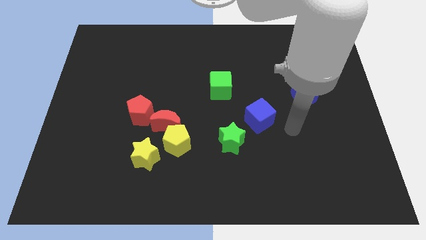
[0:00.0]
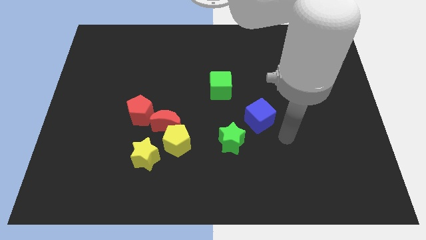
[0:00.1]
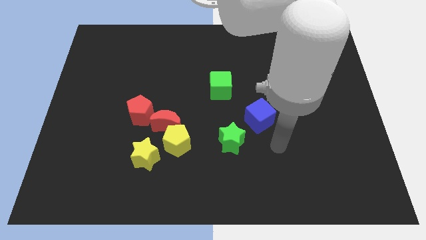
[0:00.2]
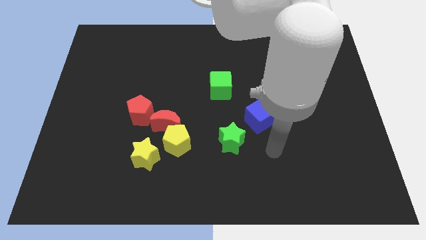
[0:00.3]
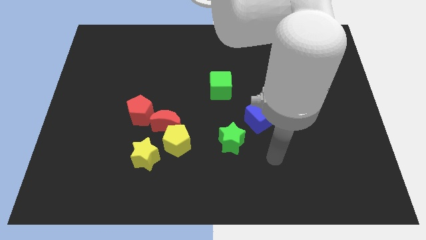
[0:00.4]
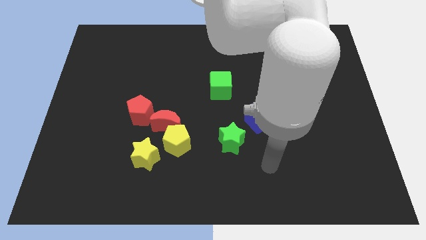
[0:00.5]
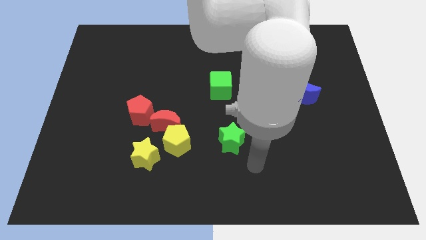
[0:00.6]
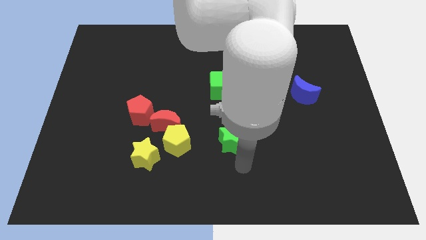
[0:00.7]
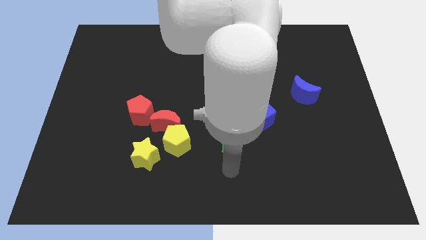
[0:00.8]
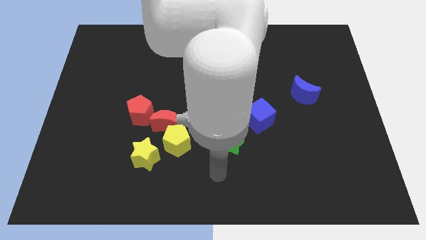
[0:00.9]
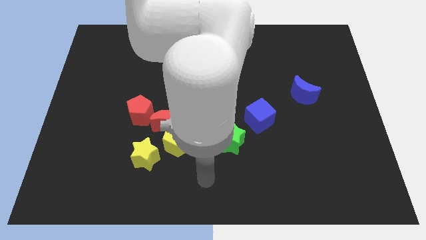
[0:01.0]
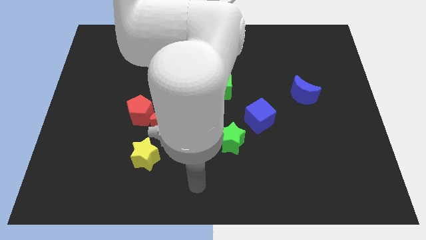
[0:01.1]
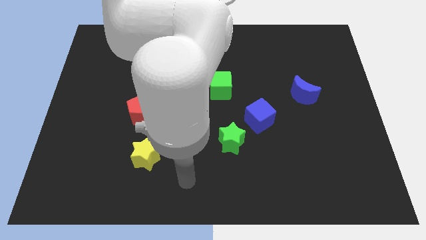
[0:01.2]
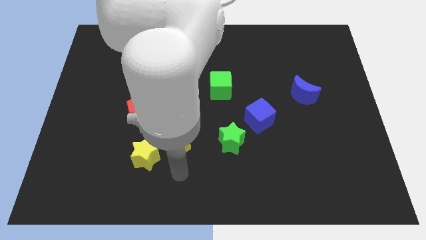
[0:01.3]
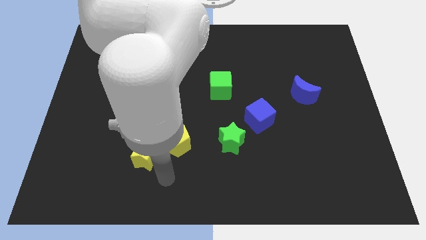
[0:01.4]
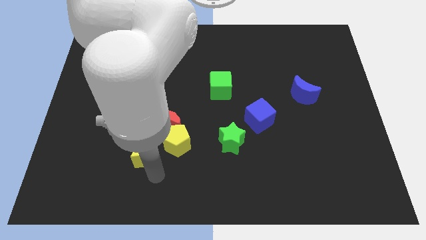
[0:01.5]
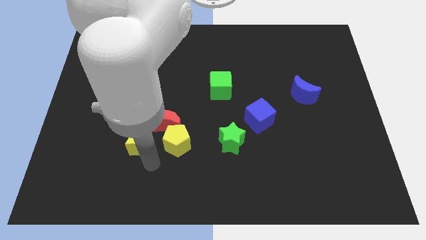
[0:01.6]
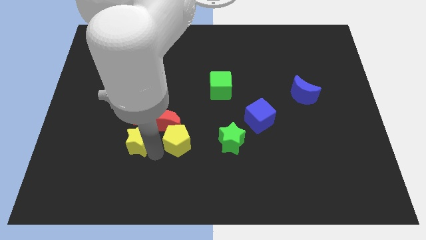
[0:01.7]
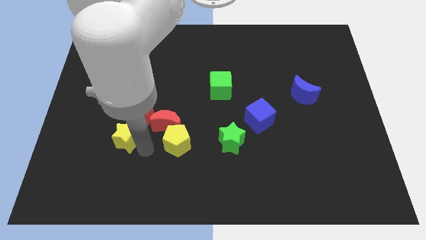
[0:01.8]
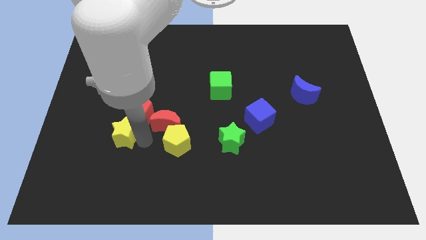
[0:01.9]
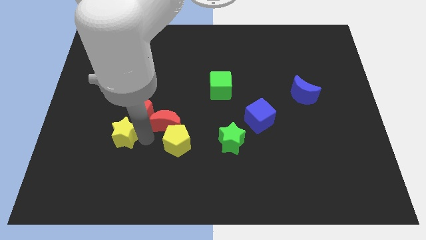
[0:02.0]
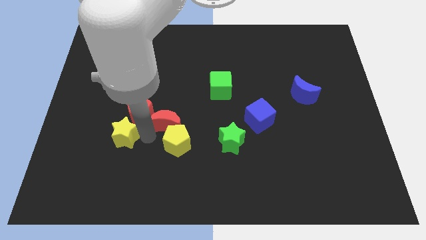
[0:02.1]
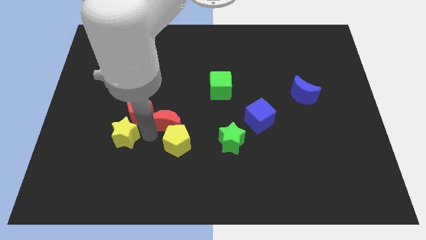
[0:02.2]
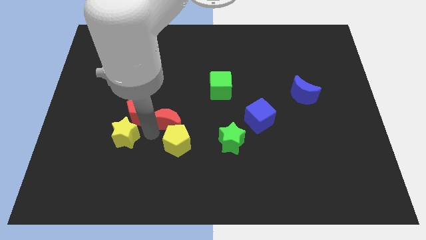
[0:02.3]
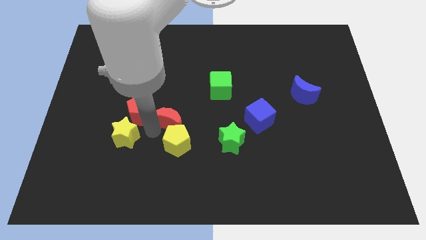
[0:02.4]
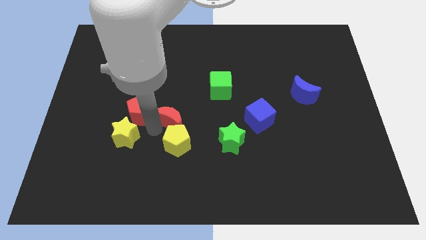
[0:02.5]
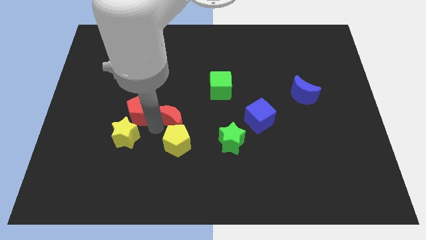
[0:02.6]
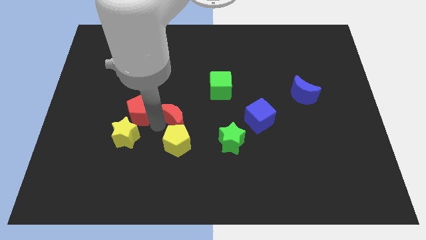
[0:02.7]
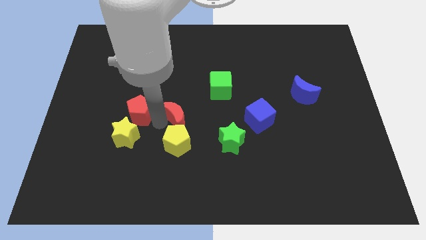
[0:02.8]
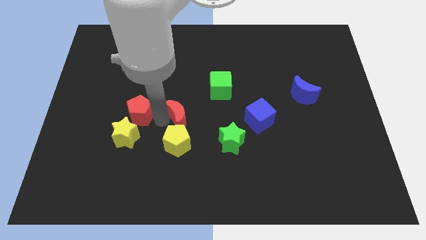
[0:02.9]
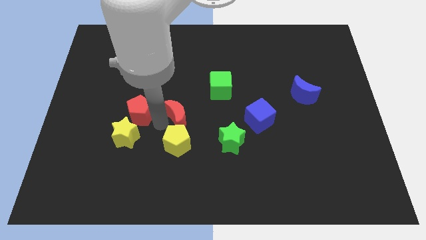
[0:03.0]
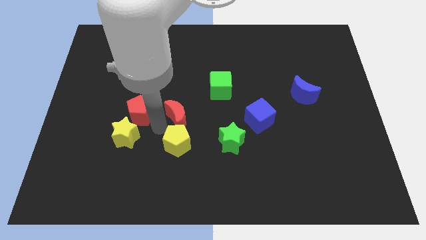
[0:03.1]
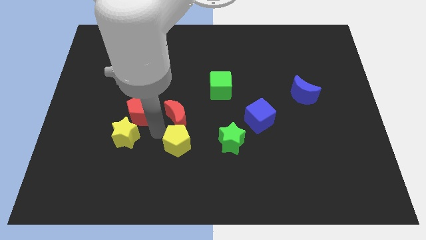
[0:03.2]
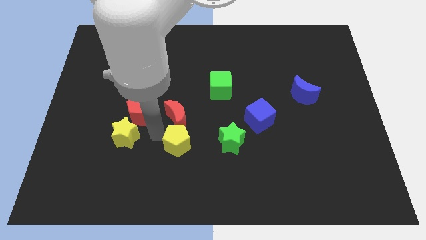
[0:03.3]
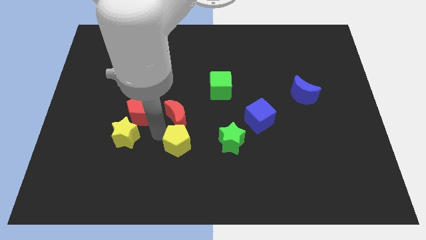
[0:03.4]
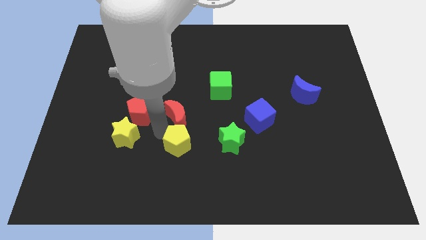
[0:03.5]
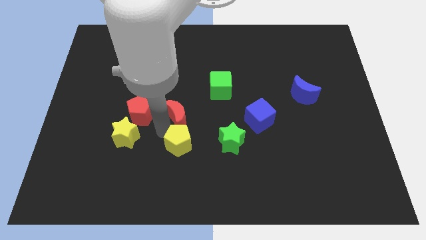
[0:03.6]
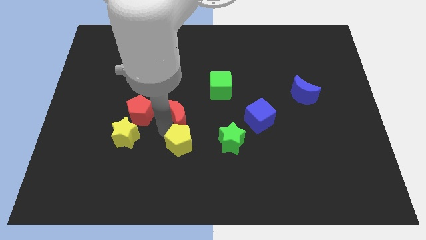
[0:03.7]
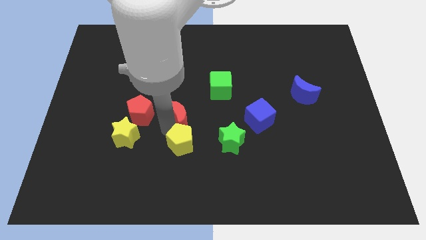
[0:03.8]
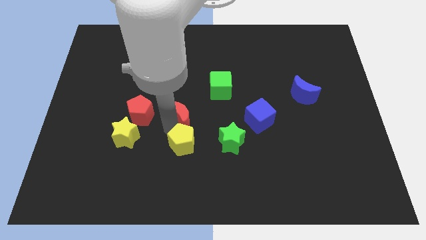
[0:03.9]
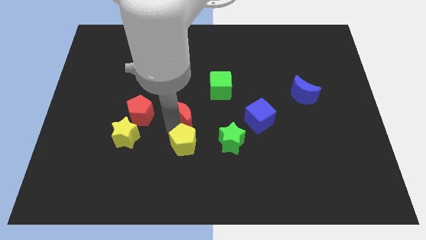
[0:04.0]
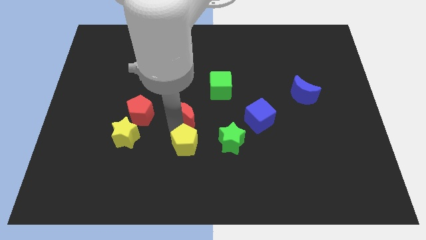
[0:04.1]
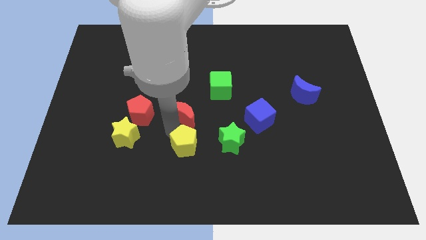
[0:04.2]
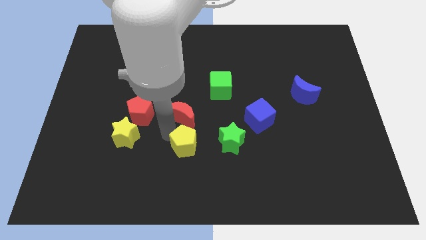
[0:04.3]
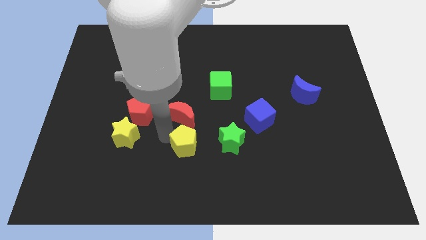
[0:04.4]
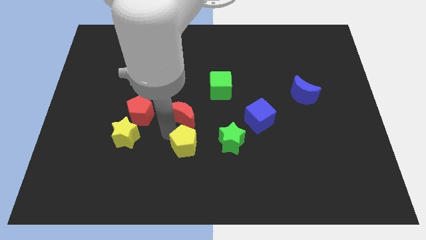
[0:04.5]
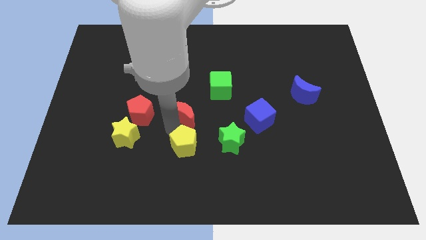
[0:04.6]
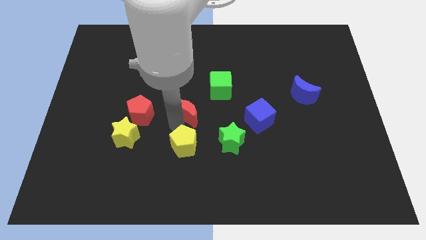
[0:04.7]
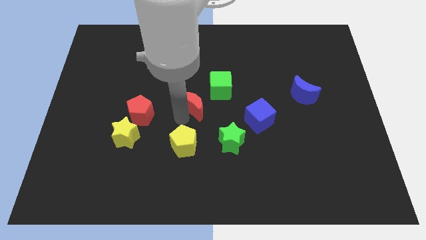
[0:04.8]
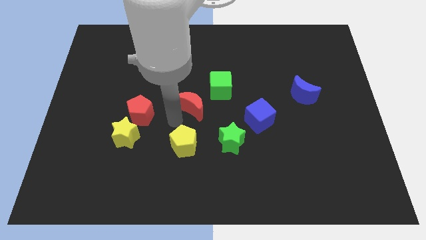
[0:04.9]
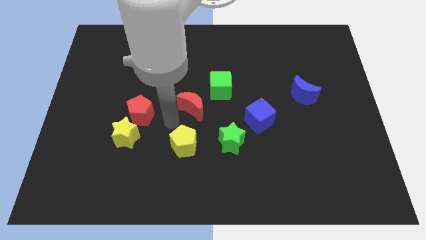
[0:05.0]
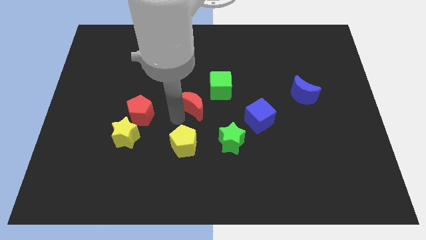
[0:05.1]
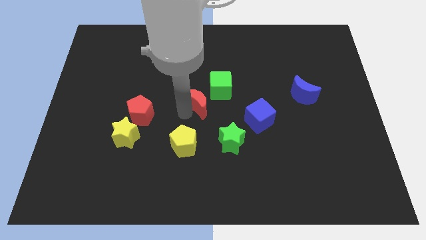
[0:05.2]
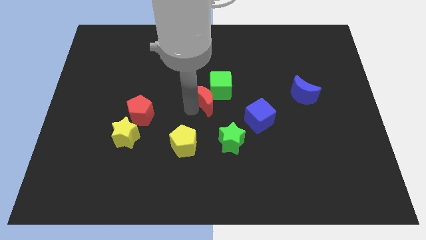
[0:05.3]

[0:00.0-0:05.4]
push the red moon next to the green cube

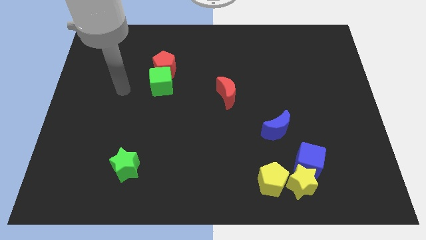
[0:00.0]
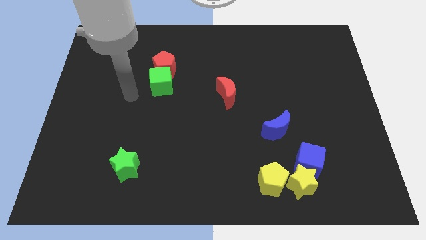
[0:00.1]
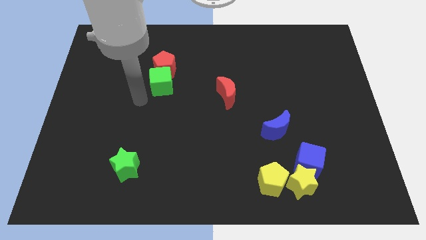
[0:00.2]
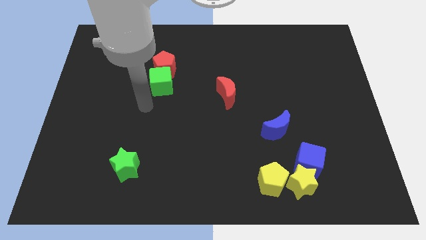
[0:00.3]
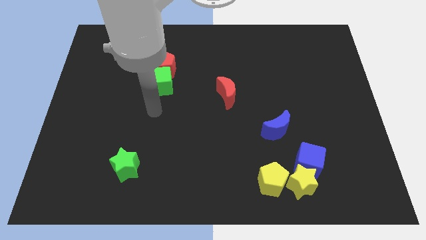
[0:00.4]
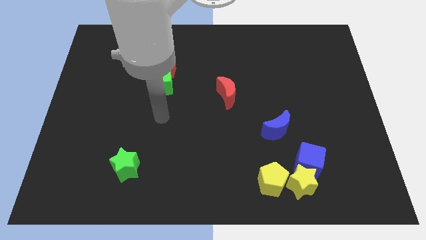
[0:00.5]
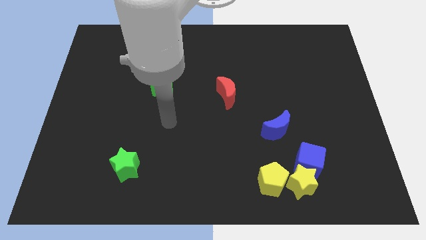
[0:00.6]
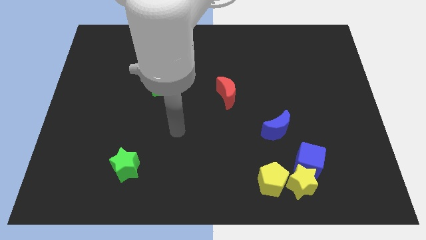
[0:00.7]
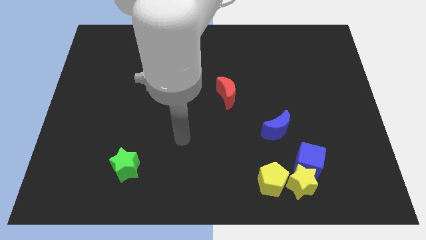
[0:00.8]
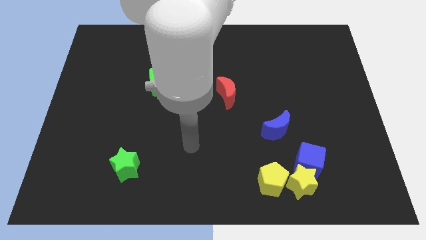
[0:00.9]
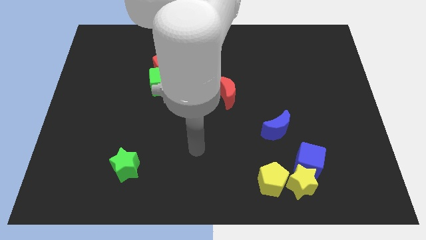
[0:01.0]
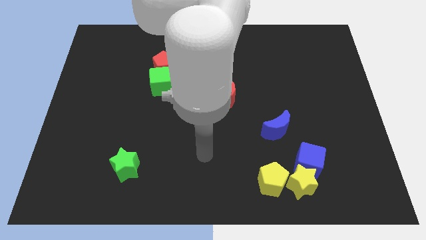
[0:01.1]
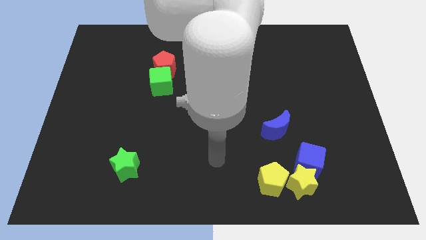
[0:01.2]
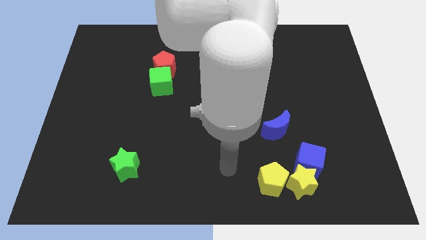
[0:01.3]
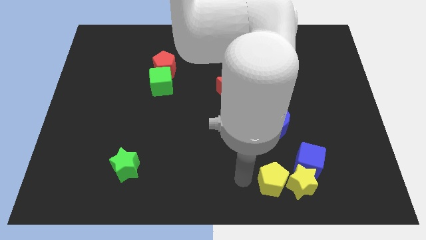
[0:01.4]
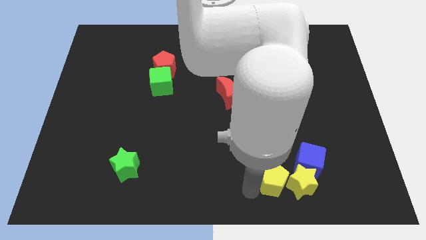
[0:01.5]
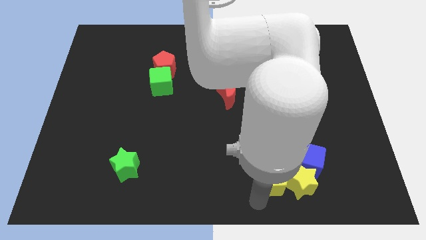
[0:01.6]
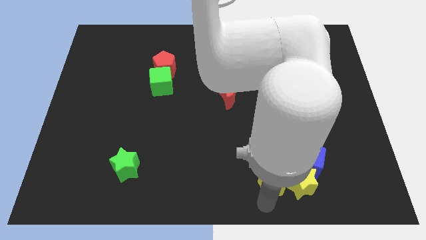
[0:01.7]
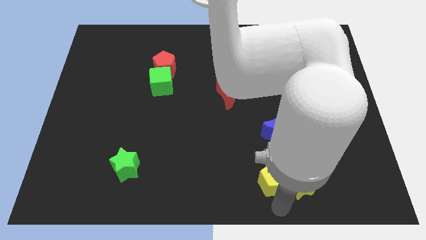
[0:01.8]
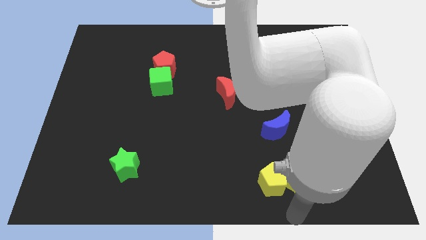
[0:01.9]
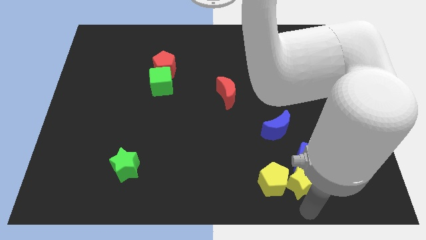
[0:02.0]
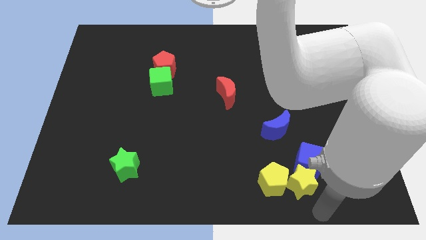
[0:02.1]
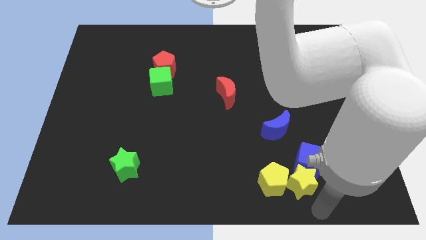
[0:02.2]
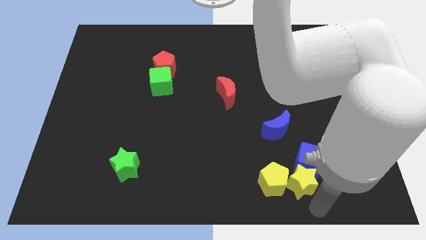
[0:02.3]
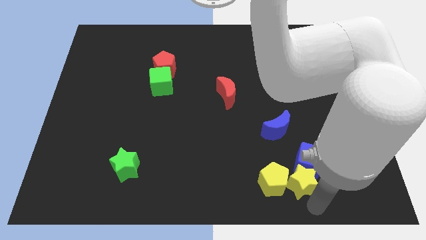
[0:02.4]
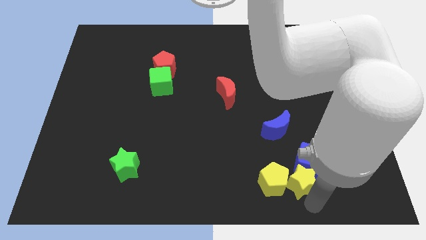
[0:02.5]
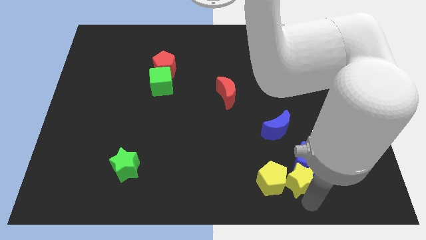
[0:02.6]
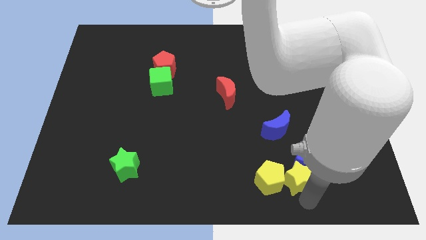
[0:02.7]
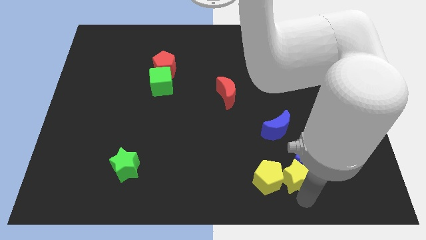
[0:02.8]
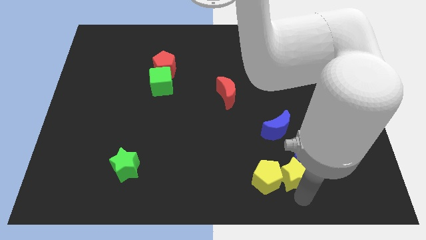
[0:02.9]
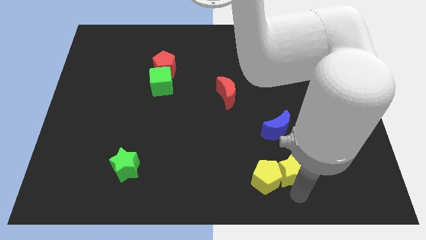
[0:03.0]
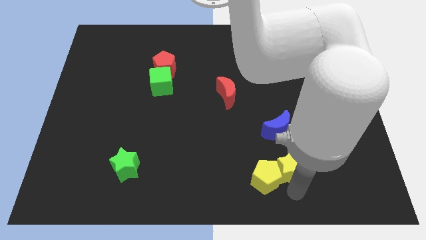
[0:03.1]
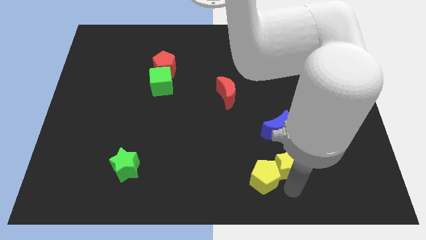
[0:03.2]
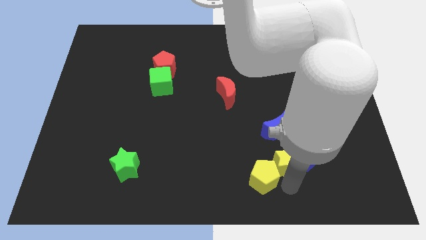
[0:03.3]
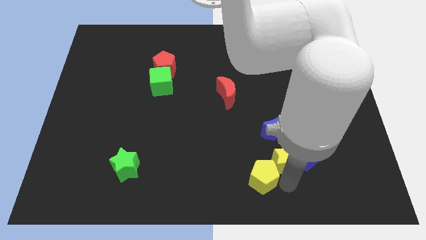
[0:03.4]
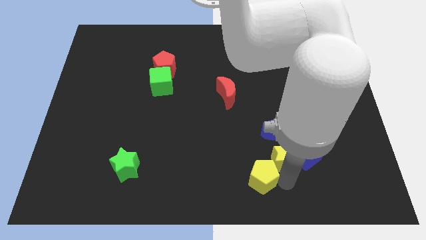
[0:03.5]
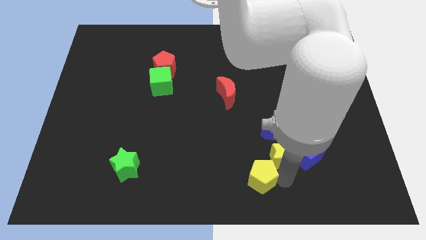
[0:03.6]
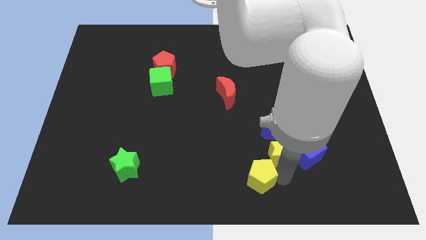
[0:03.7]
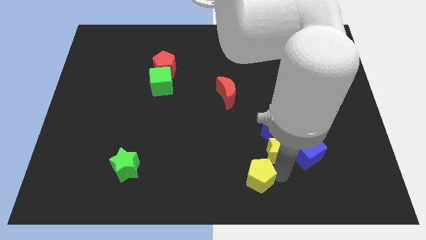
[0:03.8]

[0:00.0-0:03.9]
put the yellow star next to the blue moon
